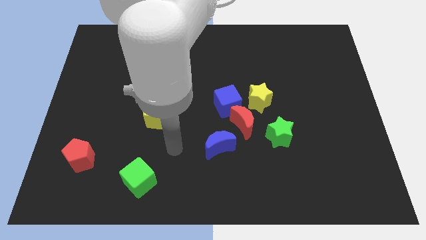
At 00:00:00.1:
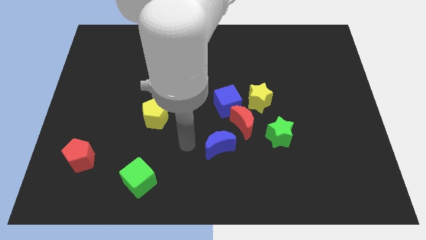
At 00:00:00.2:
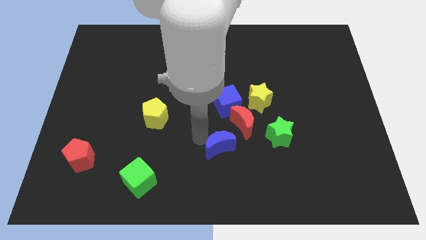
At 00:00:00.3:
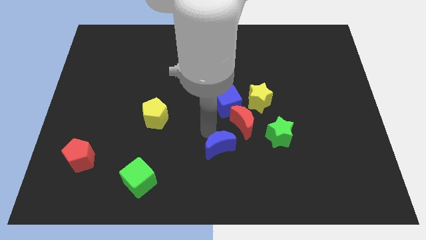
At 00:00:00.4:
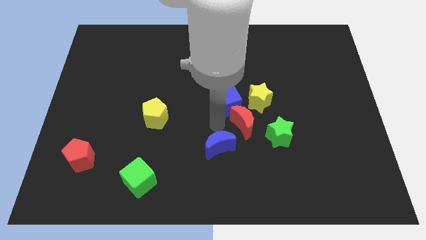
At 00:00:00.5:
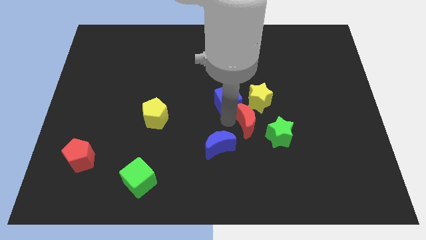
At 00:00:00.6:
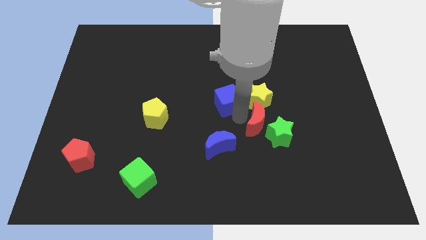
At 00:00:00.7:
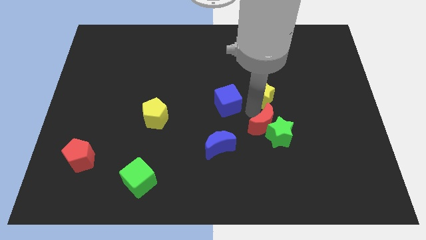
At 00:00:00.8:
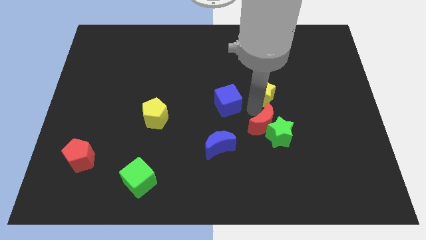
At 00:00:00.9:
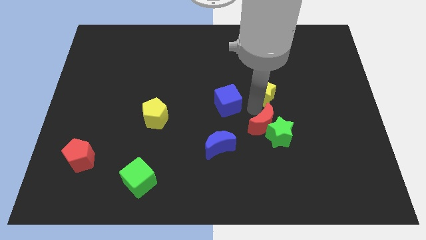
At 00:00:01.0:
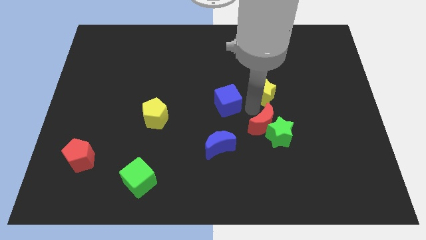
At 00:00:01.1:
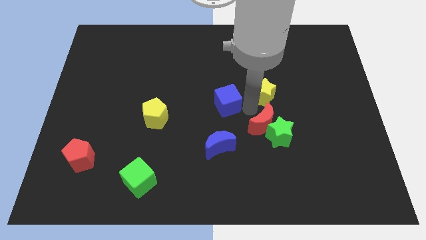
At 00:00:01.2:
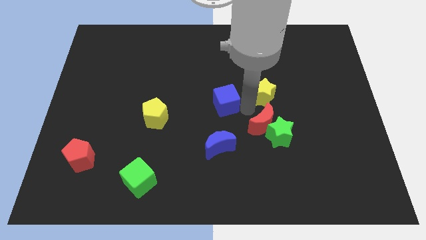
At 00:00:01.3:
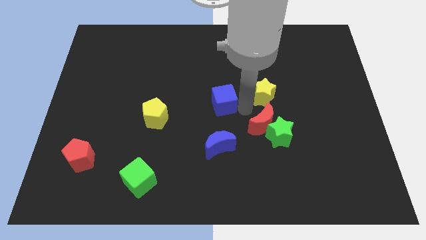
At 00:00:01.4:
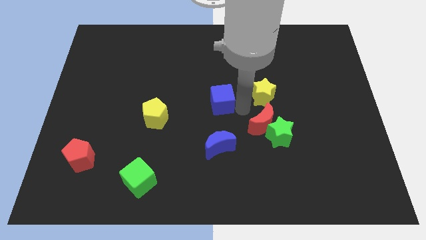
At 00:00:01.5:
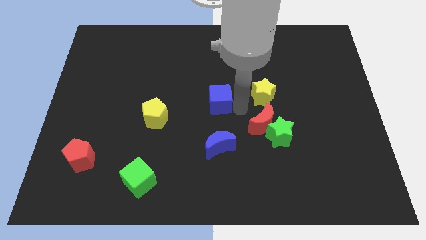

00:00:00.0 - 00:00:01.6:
move the blue cube away from the red moon and yellow star

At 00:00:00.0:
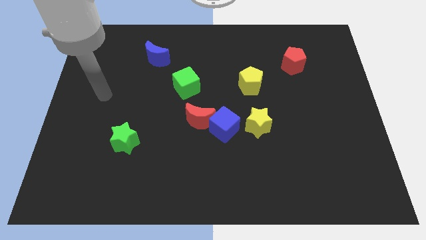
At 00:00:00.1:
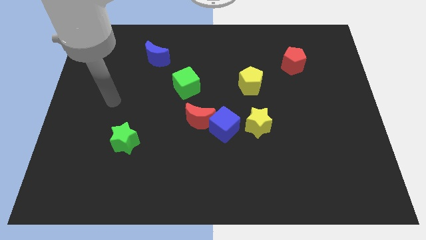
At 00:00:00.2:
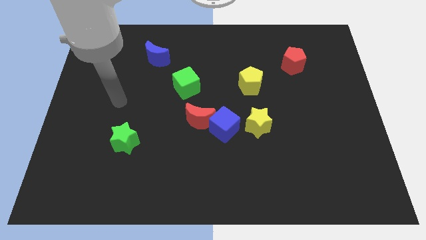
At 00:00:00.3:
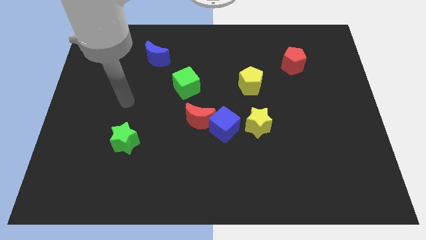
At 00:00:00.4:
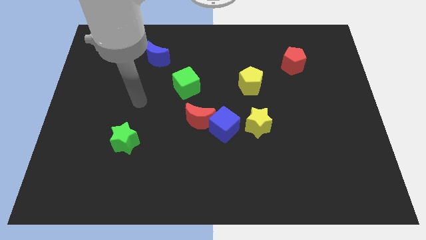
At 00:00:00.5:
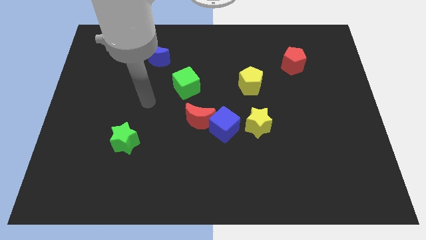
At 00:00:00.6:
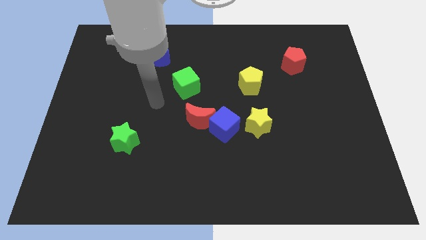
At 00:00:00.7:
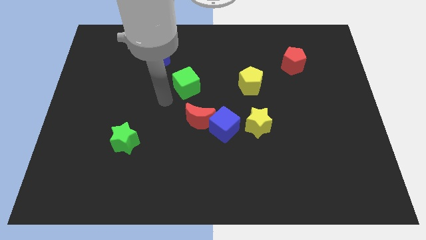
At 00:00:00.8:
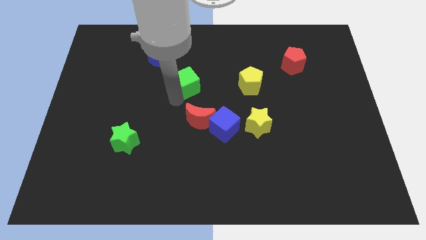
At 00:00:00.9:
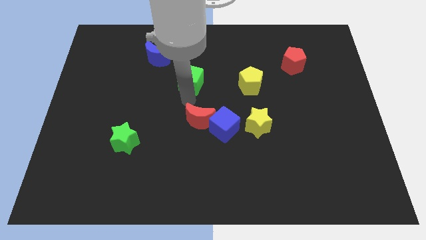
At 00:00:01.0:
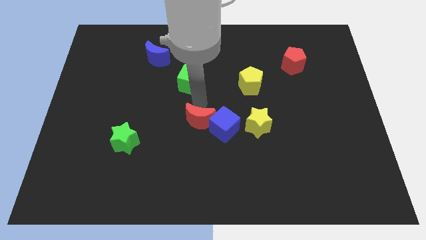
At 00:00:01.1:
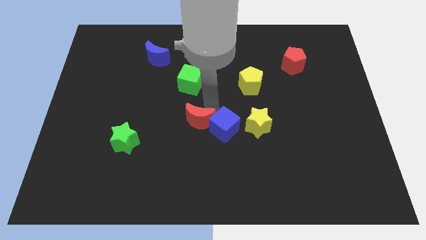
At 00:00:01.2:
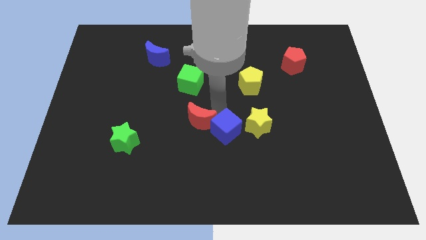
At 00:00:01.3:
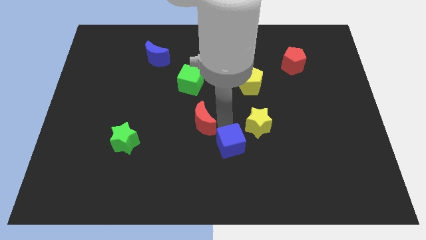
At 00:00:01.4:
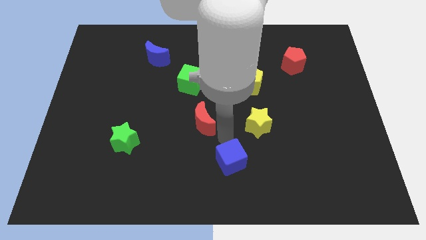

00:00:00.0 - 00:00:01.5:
move the red moon away from the blue cube

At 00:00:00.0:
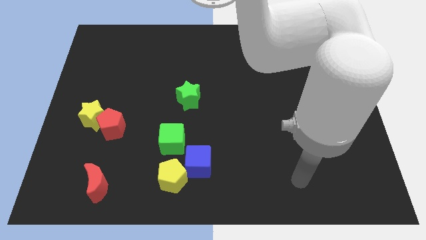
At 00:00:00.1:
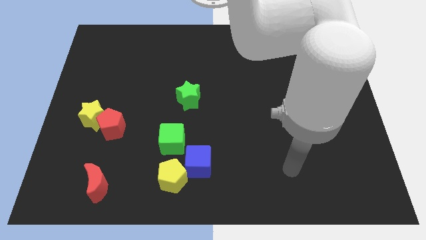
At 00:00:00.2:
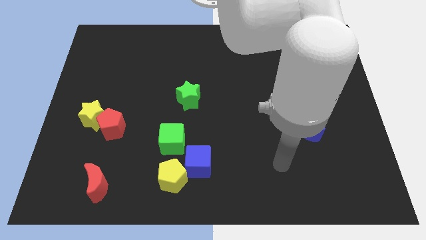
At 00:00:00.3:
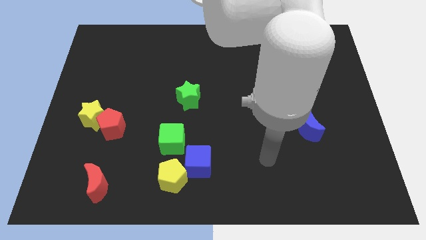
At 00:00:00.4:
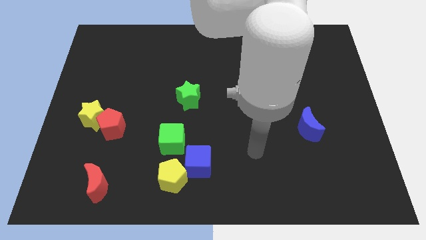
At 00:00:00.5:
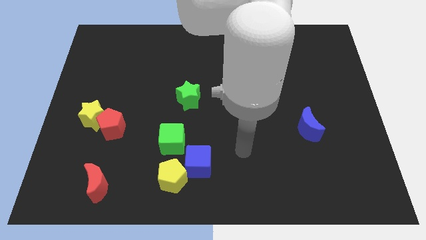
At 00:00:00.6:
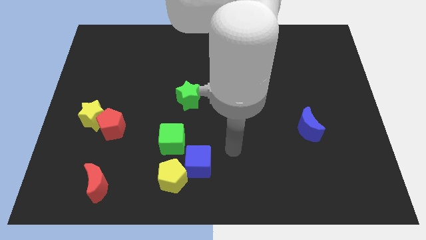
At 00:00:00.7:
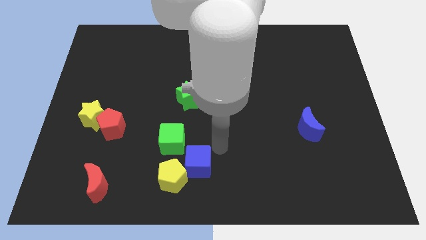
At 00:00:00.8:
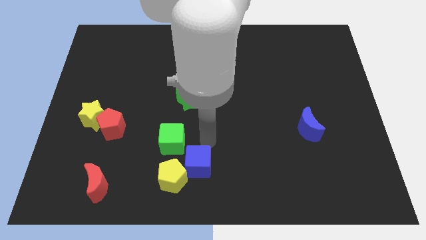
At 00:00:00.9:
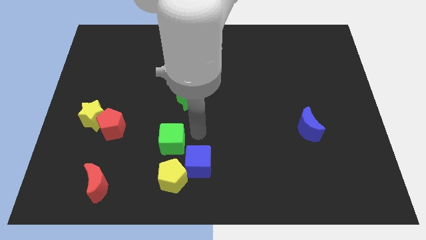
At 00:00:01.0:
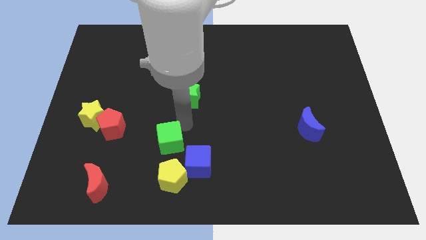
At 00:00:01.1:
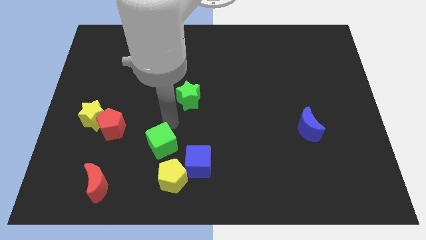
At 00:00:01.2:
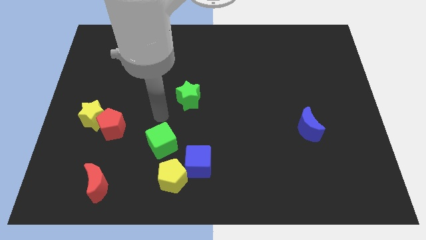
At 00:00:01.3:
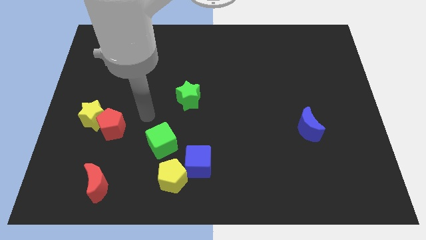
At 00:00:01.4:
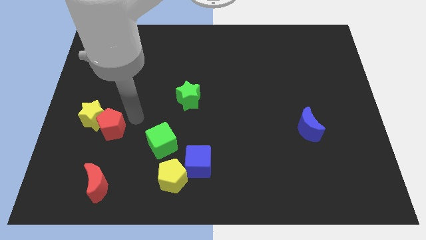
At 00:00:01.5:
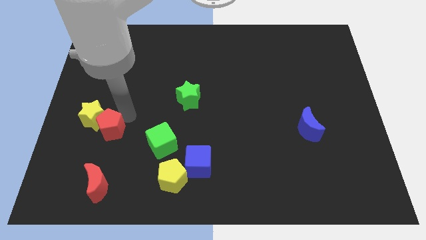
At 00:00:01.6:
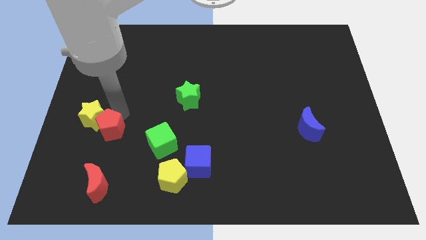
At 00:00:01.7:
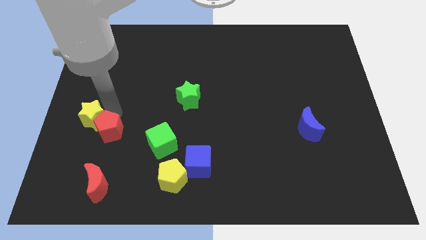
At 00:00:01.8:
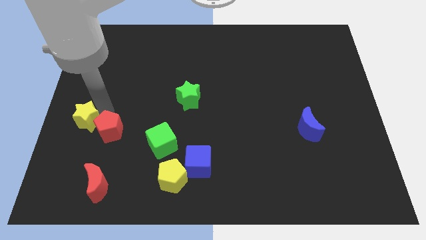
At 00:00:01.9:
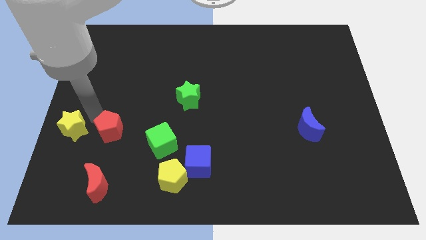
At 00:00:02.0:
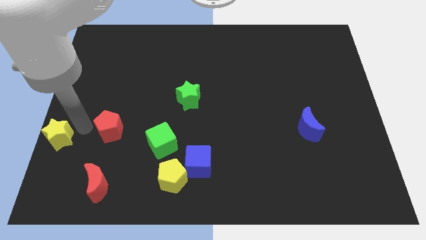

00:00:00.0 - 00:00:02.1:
pull the red pentagon apart from the yellow star

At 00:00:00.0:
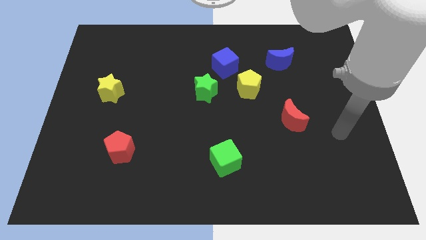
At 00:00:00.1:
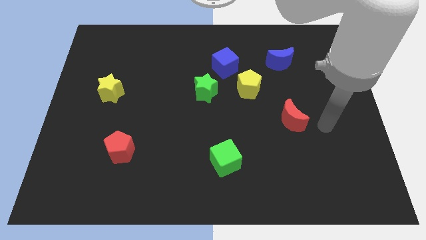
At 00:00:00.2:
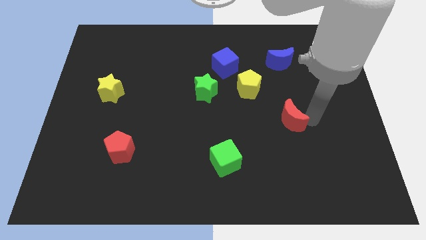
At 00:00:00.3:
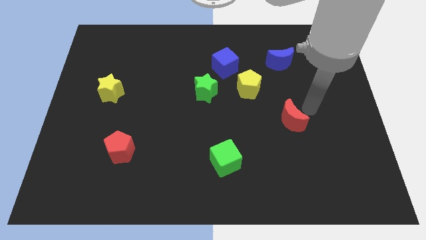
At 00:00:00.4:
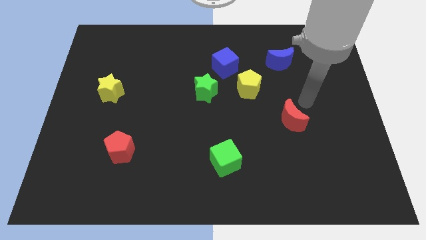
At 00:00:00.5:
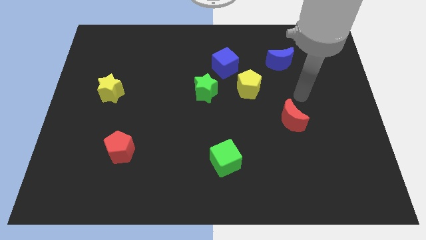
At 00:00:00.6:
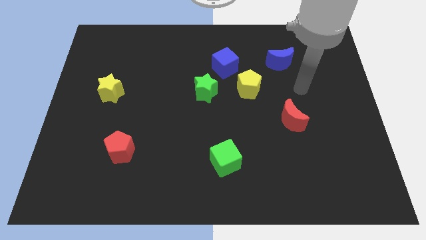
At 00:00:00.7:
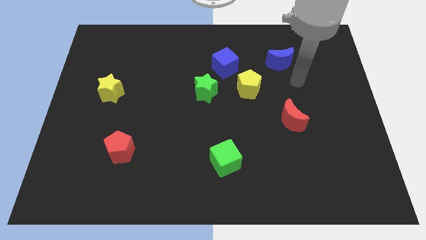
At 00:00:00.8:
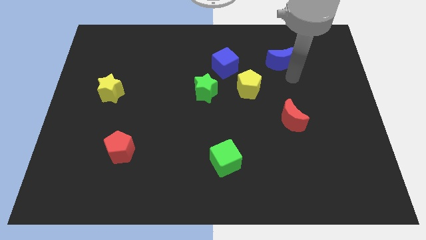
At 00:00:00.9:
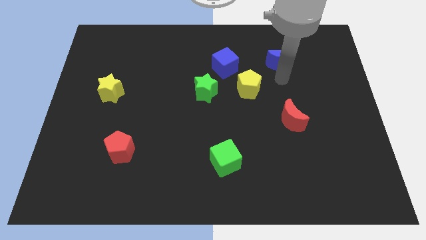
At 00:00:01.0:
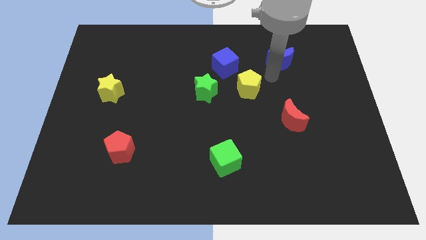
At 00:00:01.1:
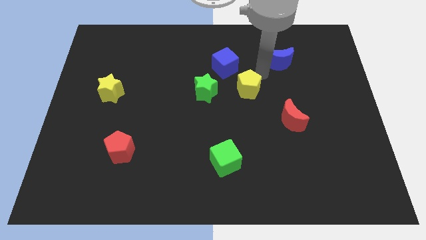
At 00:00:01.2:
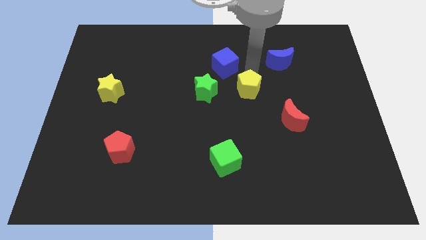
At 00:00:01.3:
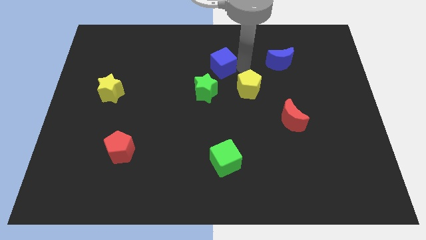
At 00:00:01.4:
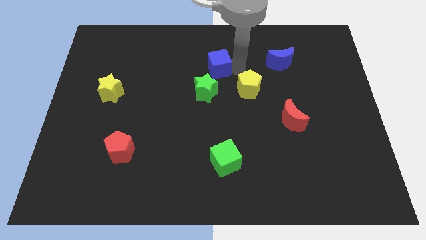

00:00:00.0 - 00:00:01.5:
separate the yellow pentagon from the blue cube

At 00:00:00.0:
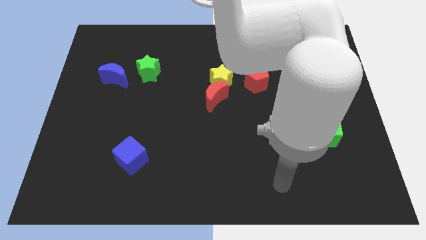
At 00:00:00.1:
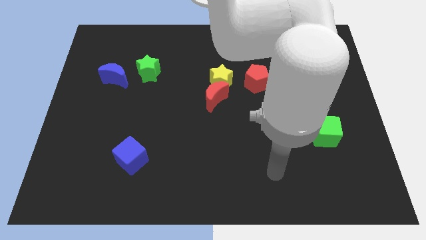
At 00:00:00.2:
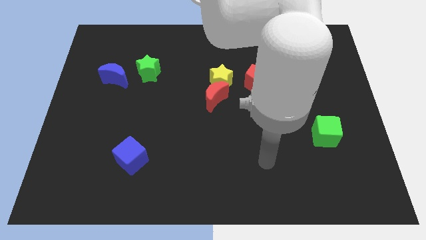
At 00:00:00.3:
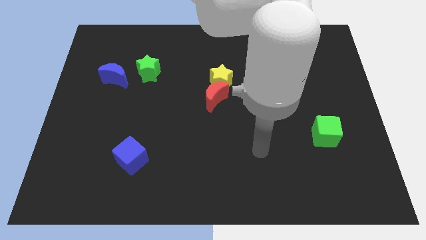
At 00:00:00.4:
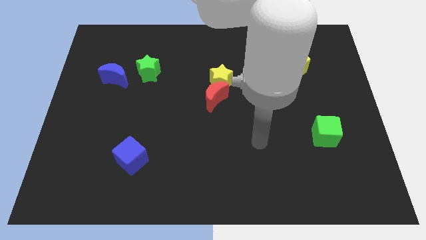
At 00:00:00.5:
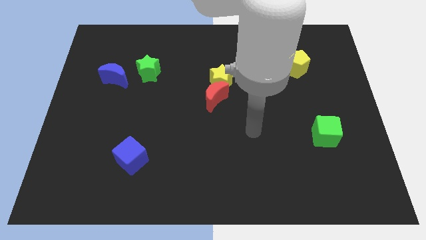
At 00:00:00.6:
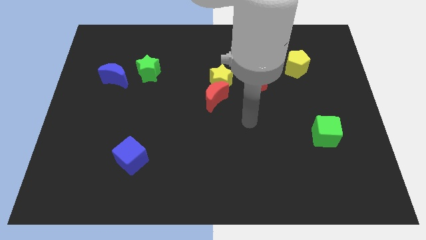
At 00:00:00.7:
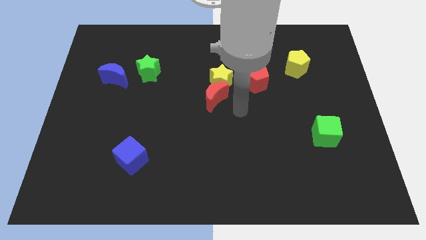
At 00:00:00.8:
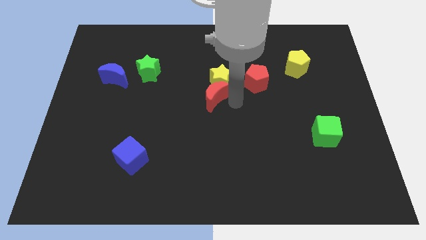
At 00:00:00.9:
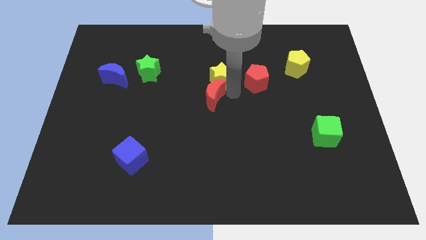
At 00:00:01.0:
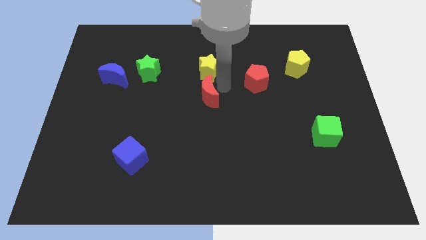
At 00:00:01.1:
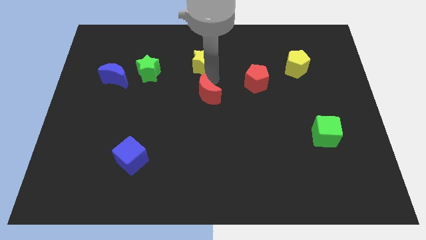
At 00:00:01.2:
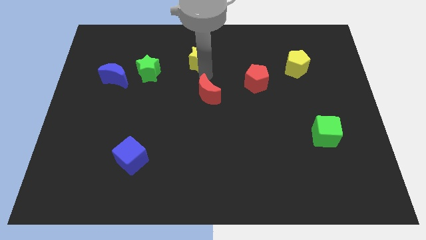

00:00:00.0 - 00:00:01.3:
move the red moon away from the yellow star

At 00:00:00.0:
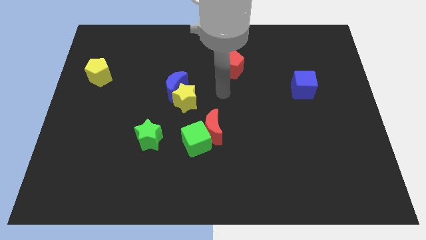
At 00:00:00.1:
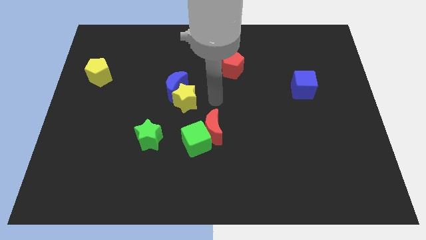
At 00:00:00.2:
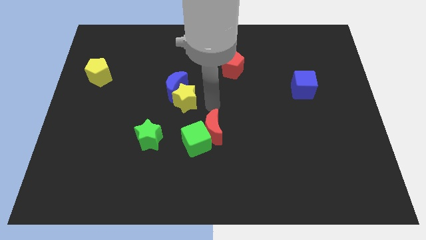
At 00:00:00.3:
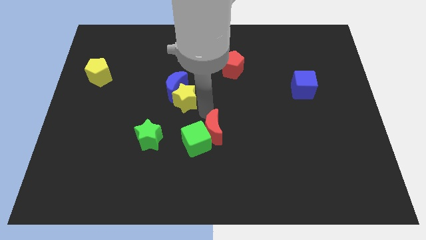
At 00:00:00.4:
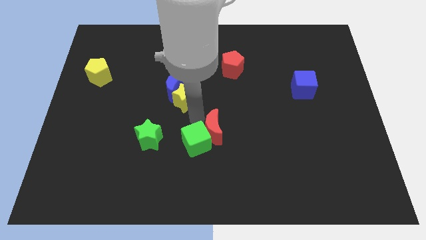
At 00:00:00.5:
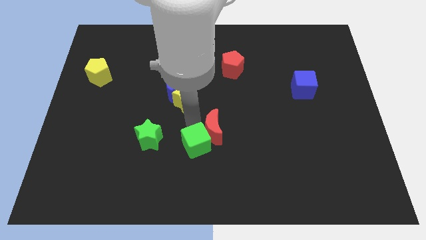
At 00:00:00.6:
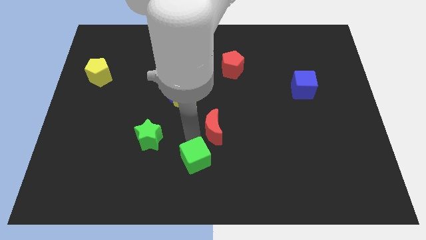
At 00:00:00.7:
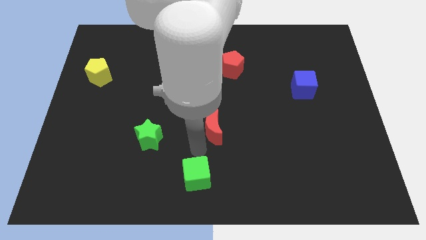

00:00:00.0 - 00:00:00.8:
move the red moon away from the green cube

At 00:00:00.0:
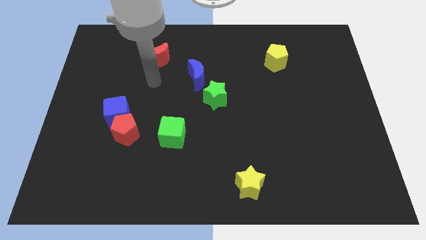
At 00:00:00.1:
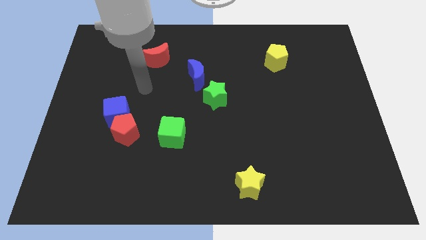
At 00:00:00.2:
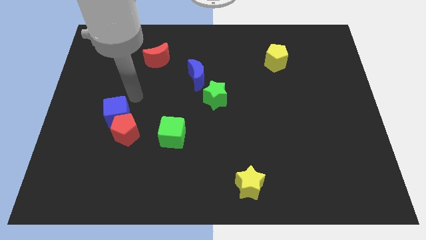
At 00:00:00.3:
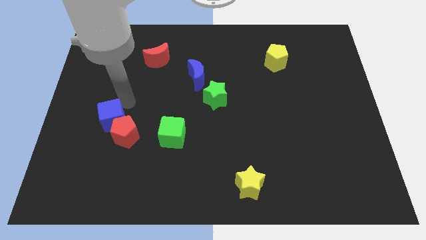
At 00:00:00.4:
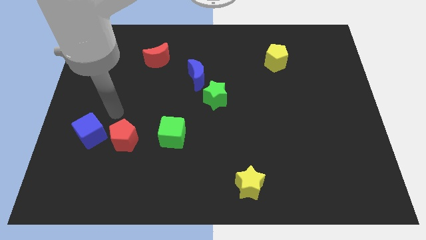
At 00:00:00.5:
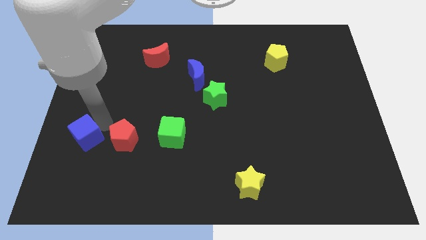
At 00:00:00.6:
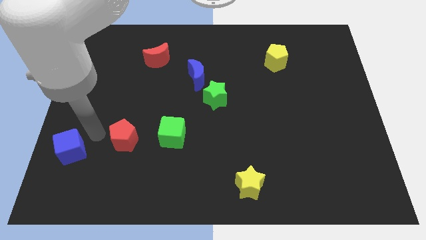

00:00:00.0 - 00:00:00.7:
move the red pentagon away from the blue cube
